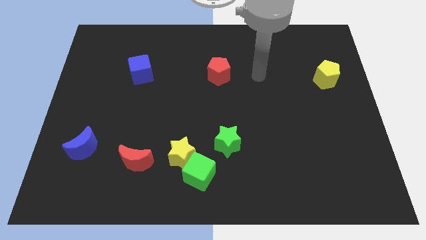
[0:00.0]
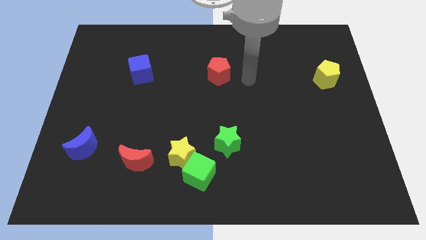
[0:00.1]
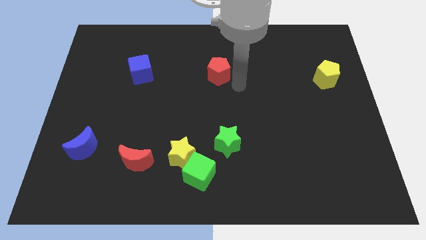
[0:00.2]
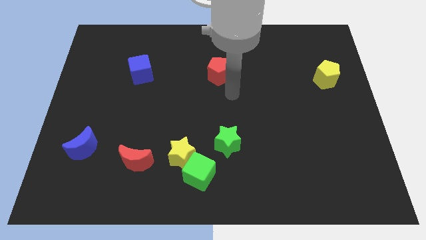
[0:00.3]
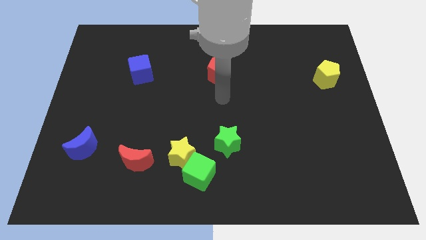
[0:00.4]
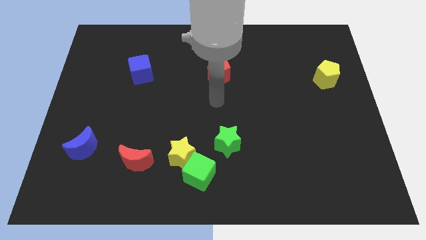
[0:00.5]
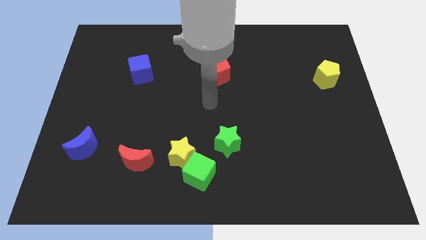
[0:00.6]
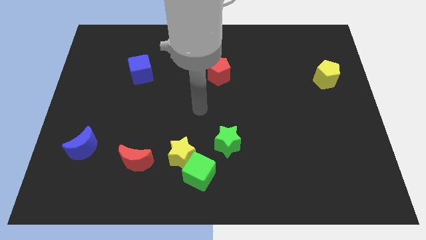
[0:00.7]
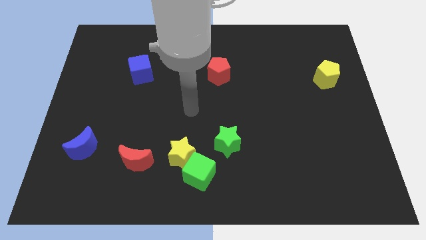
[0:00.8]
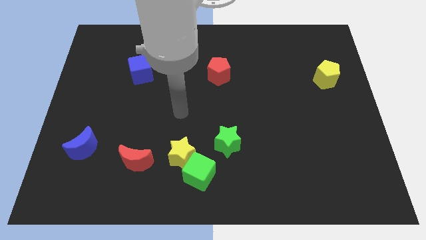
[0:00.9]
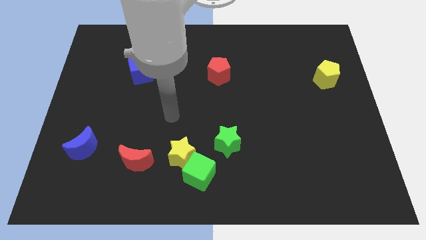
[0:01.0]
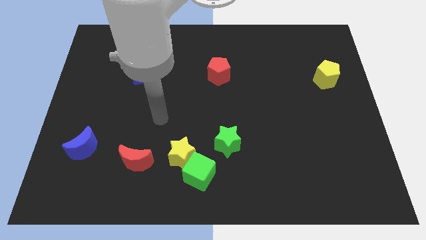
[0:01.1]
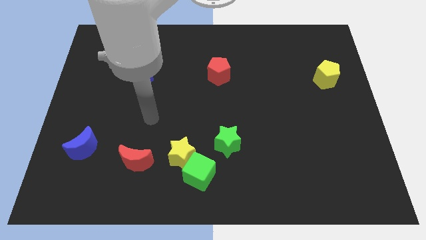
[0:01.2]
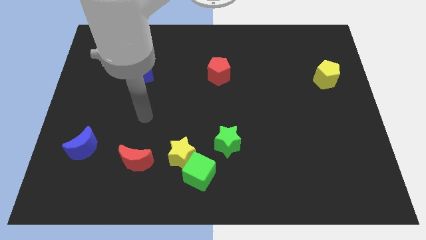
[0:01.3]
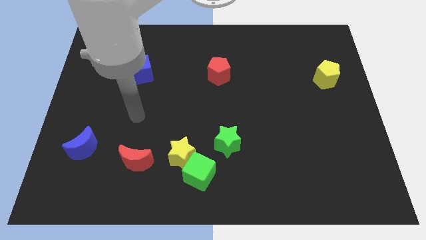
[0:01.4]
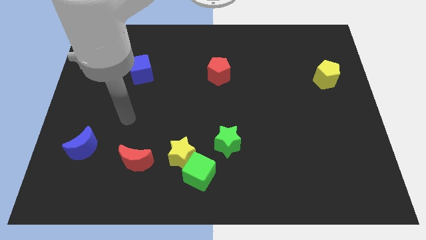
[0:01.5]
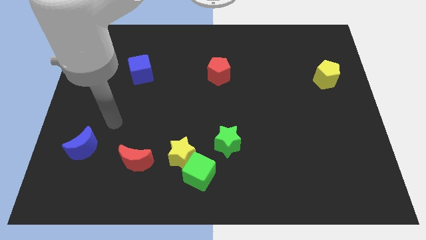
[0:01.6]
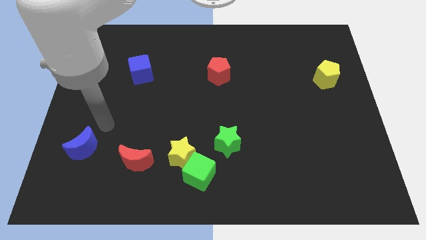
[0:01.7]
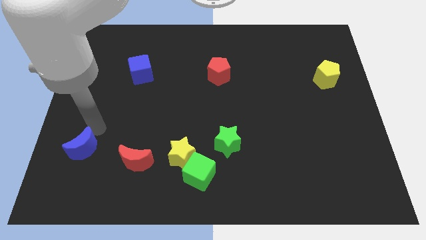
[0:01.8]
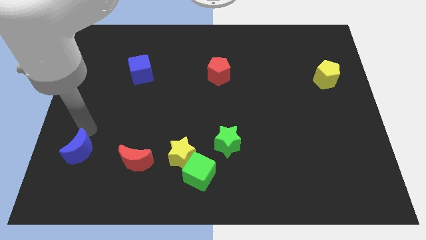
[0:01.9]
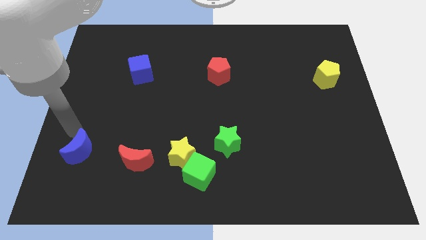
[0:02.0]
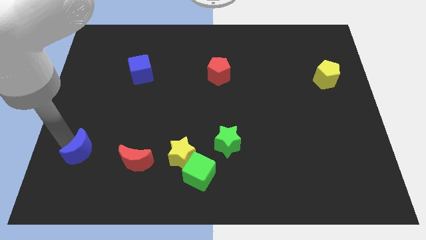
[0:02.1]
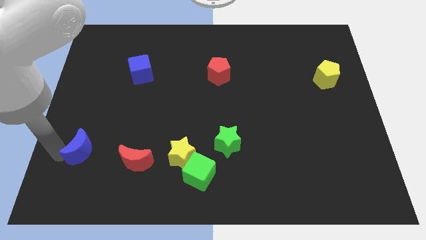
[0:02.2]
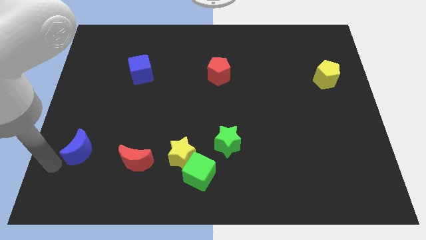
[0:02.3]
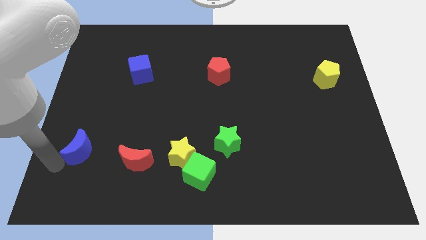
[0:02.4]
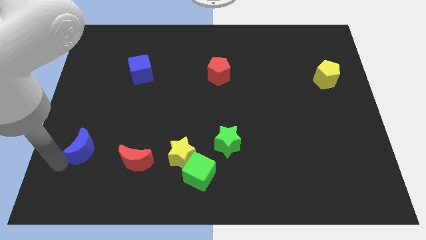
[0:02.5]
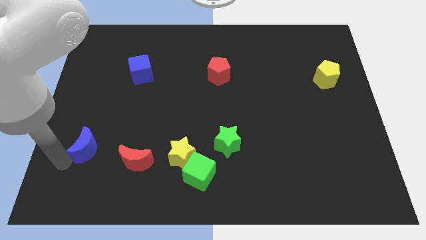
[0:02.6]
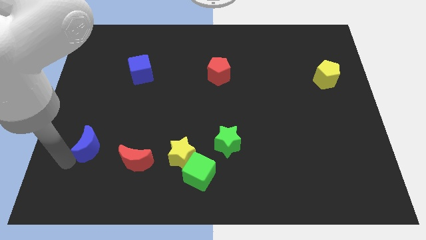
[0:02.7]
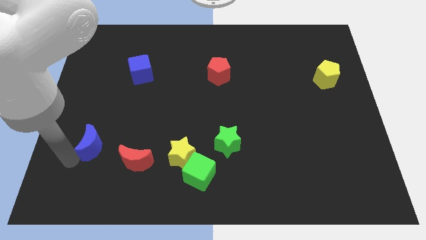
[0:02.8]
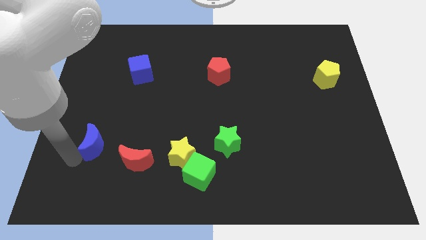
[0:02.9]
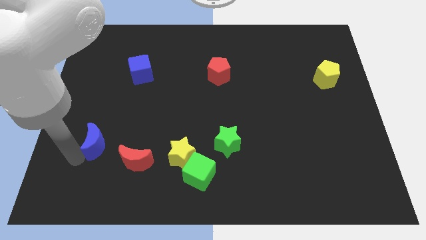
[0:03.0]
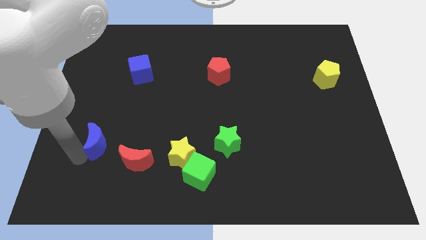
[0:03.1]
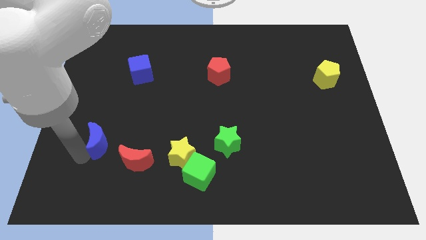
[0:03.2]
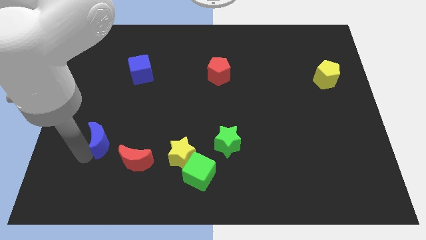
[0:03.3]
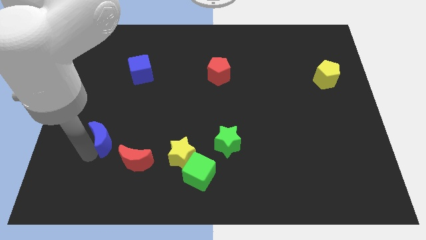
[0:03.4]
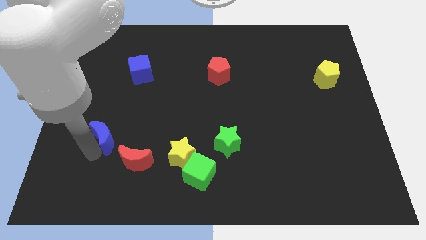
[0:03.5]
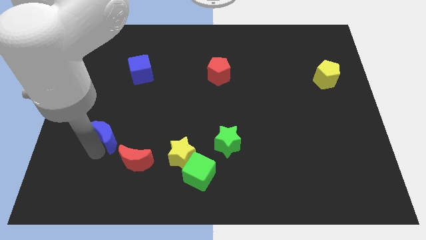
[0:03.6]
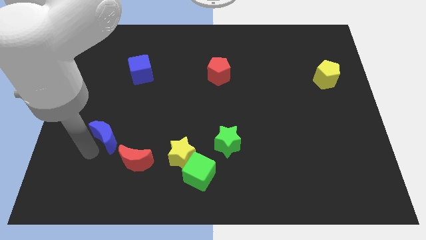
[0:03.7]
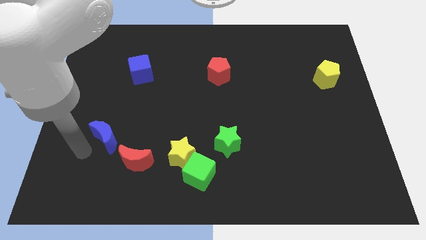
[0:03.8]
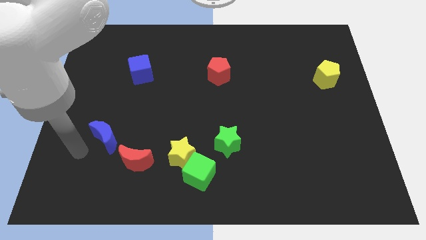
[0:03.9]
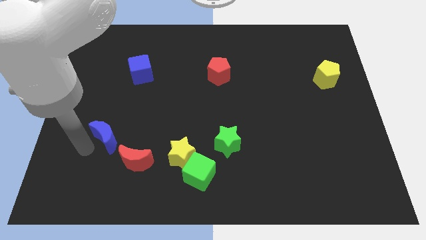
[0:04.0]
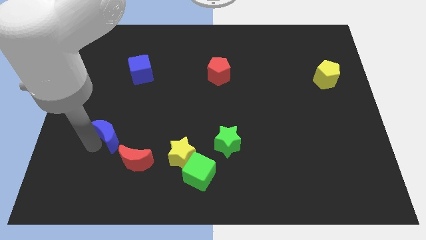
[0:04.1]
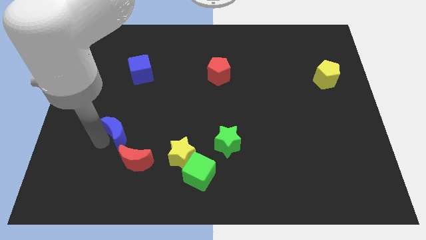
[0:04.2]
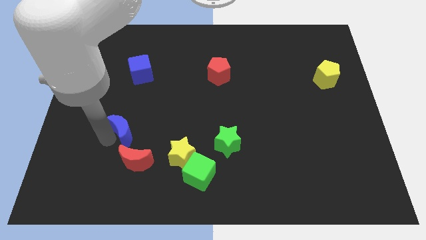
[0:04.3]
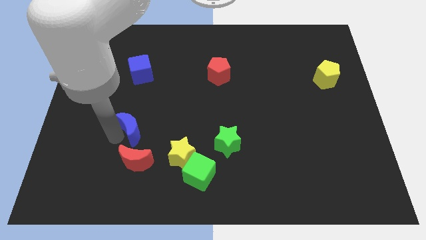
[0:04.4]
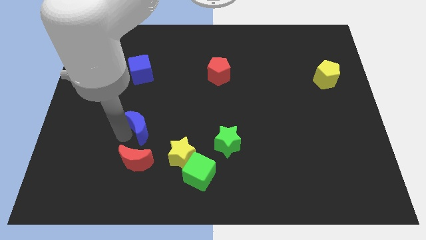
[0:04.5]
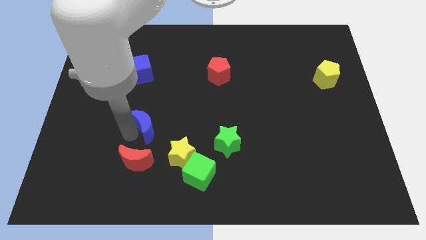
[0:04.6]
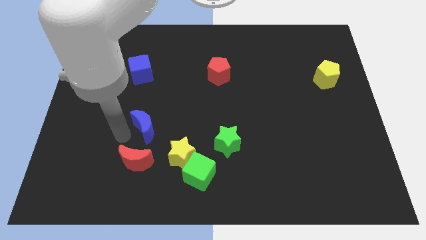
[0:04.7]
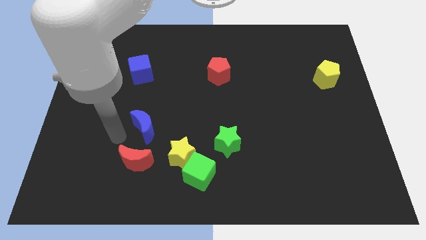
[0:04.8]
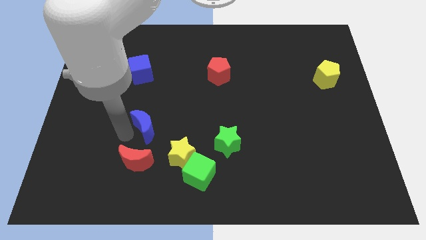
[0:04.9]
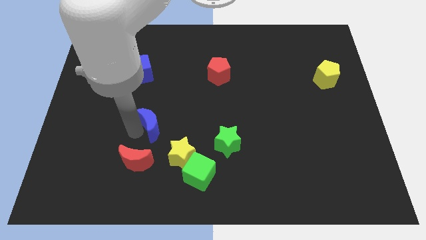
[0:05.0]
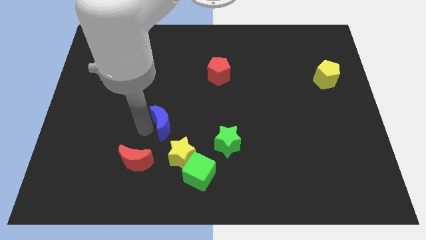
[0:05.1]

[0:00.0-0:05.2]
slide the blue moon to the top of the yellow star

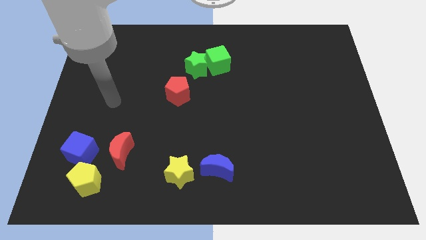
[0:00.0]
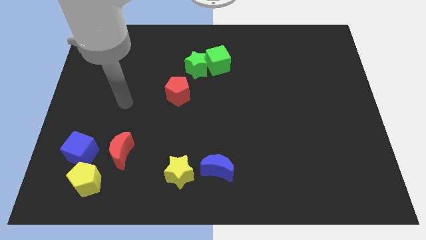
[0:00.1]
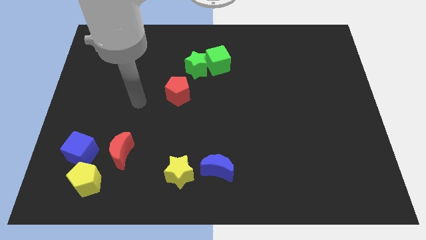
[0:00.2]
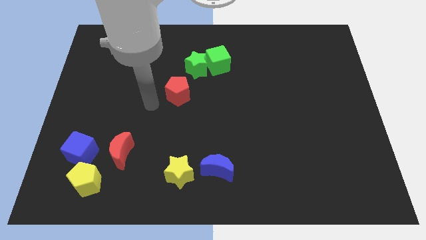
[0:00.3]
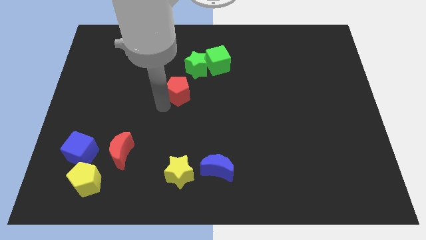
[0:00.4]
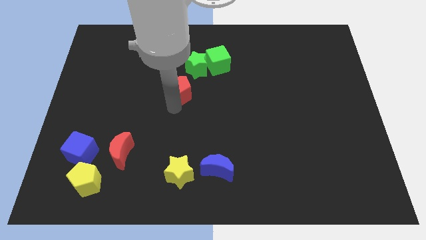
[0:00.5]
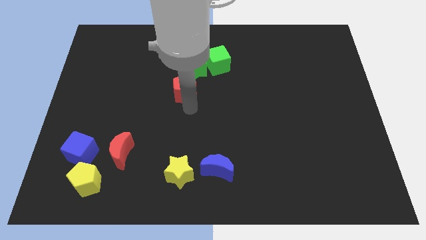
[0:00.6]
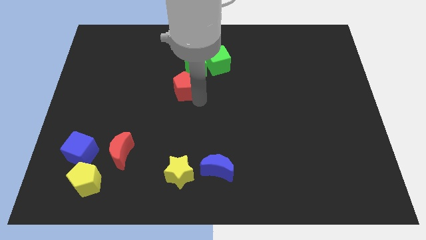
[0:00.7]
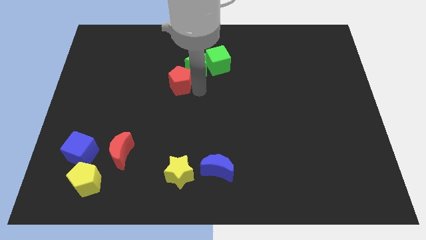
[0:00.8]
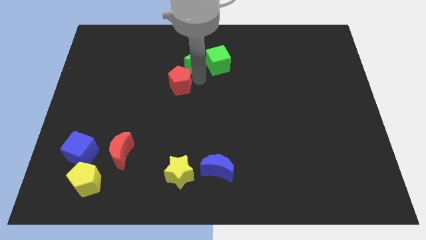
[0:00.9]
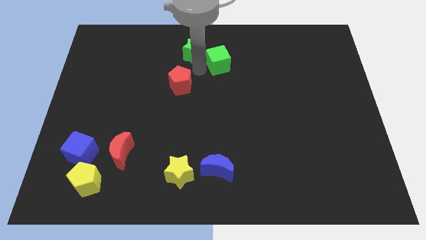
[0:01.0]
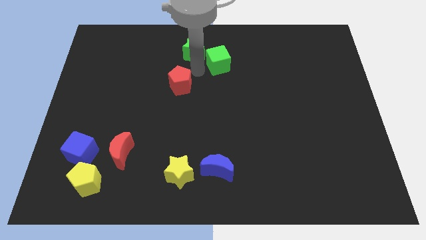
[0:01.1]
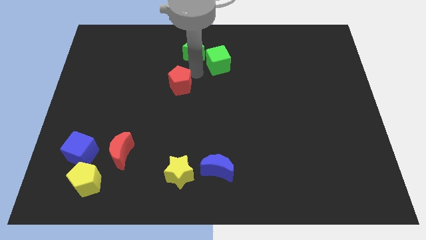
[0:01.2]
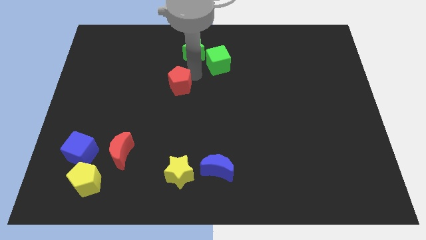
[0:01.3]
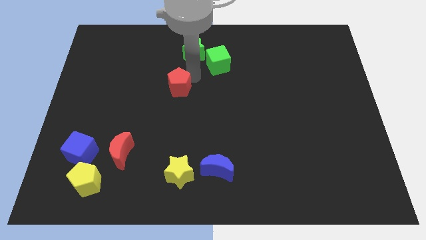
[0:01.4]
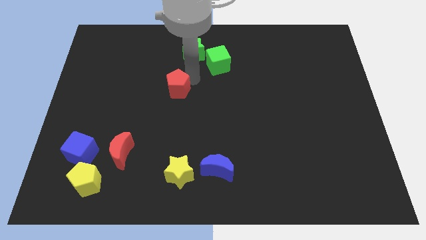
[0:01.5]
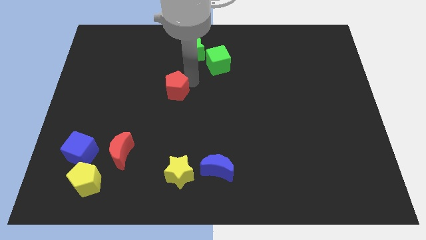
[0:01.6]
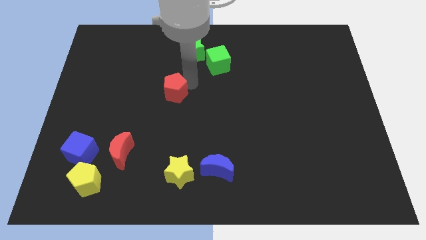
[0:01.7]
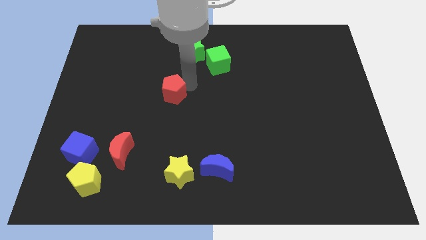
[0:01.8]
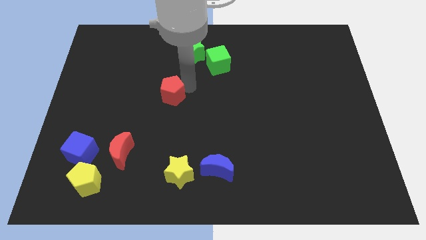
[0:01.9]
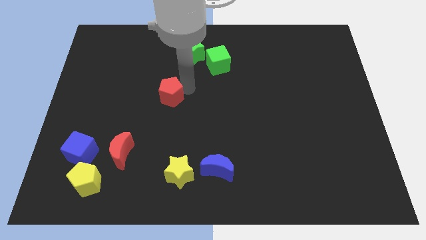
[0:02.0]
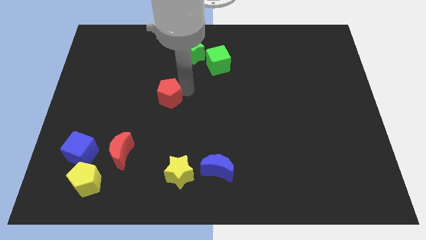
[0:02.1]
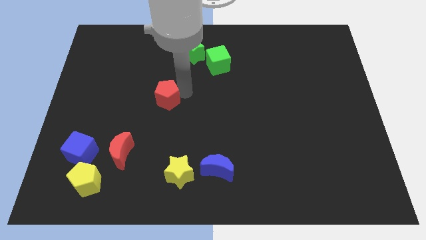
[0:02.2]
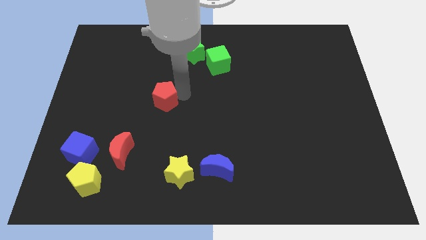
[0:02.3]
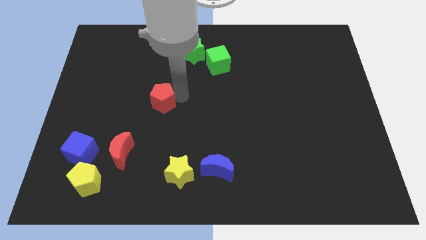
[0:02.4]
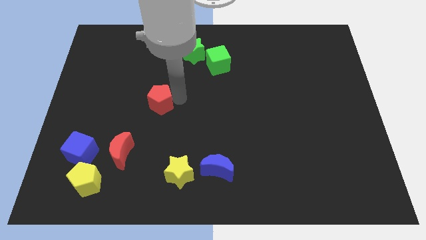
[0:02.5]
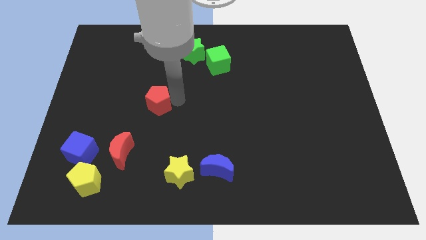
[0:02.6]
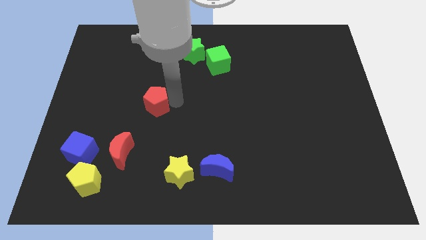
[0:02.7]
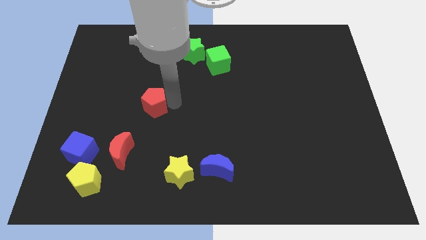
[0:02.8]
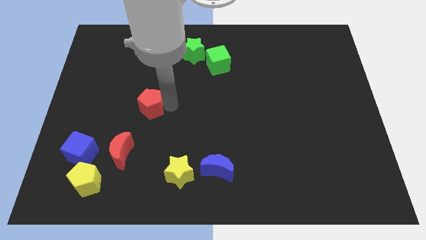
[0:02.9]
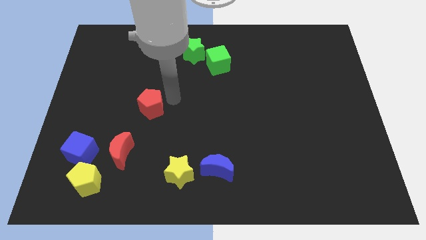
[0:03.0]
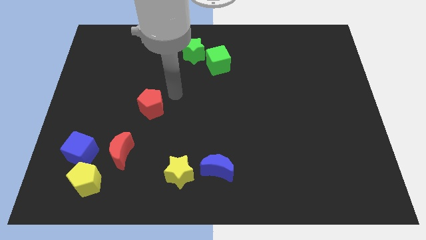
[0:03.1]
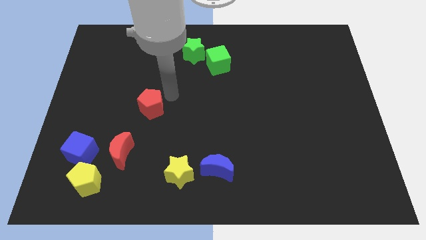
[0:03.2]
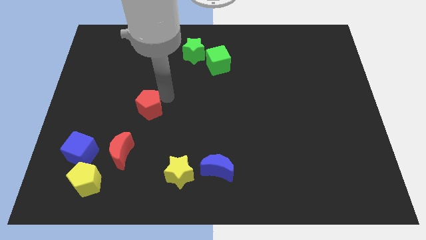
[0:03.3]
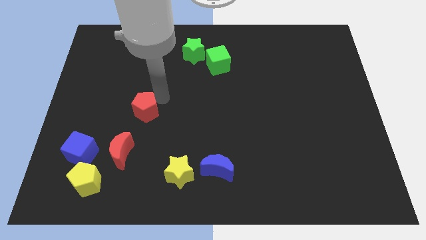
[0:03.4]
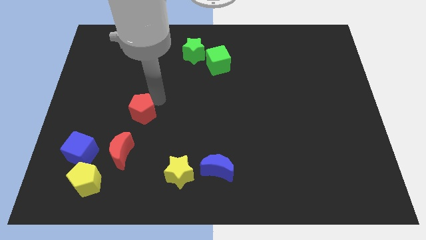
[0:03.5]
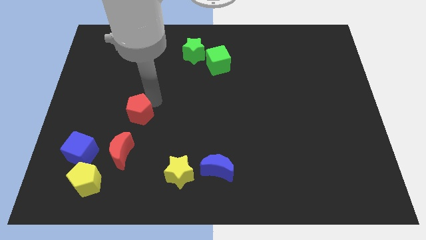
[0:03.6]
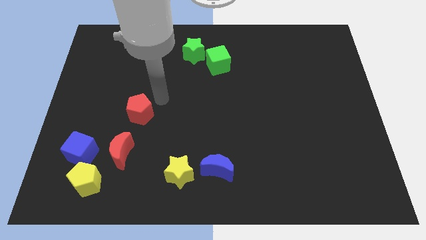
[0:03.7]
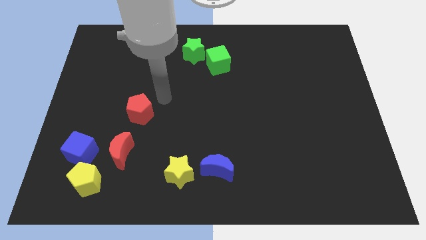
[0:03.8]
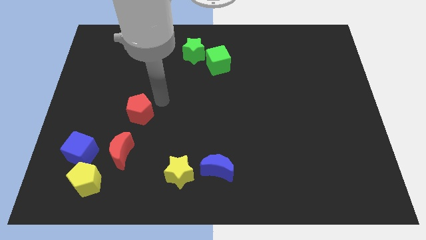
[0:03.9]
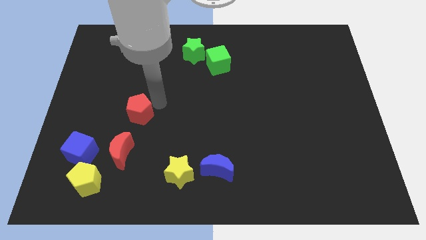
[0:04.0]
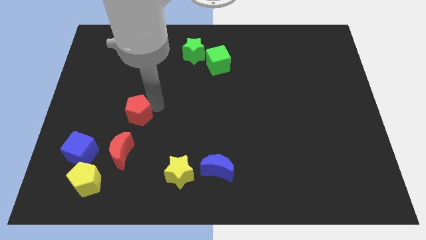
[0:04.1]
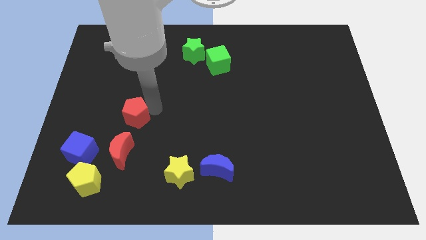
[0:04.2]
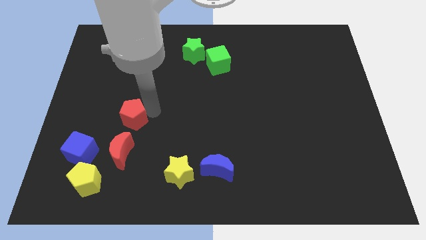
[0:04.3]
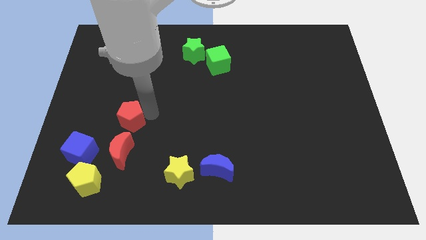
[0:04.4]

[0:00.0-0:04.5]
push the red pentagon to the top right side of the blue cube
